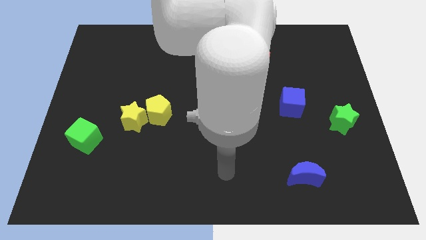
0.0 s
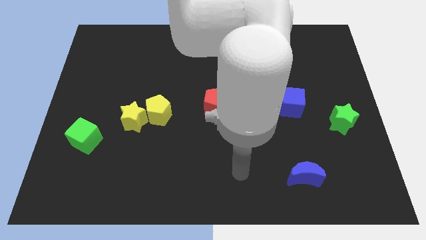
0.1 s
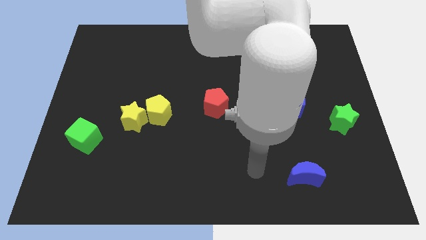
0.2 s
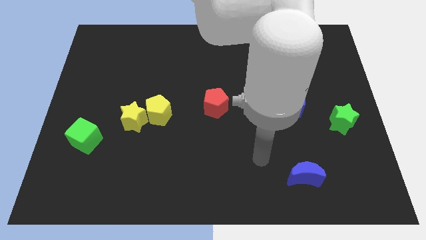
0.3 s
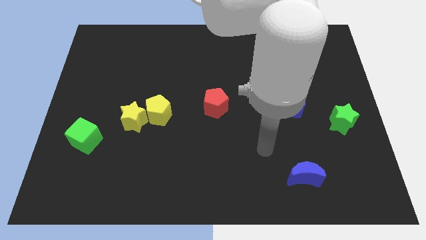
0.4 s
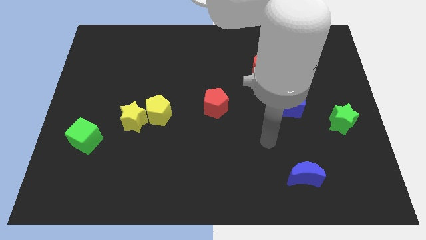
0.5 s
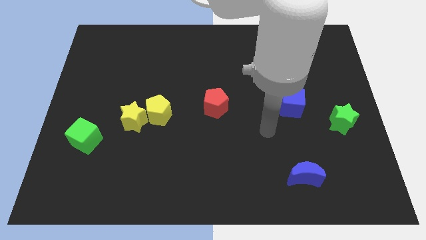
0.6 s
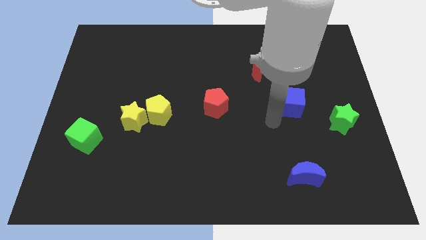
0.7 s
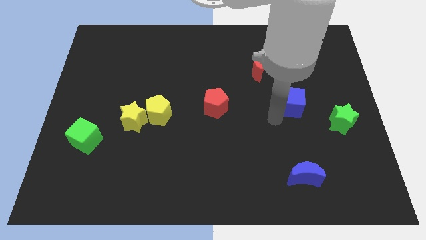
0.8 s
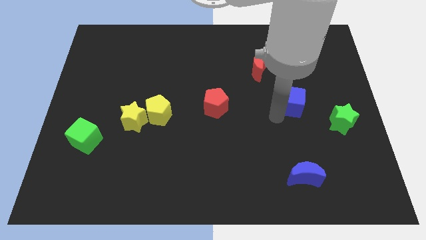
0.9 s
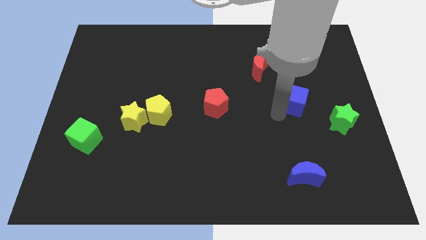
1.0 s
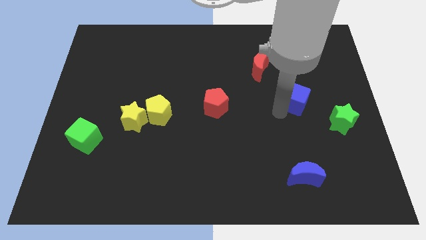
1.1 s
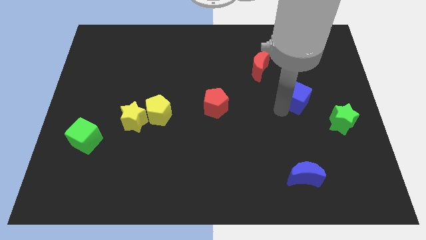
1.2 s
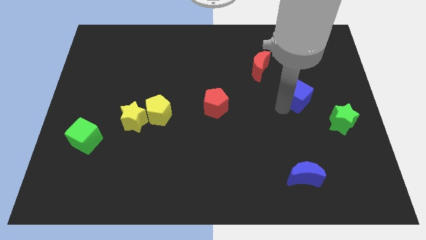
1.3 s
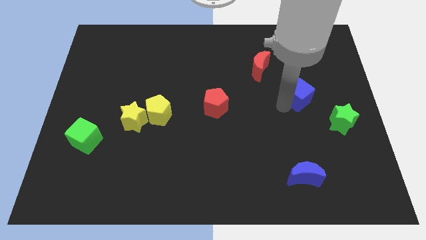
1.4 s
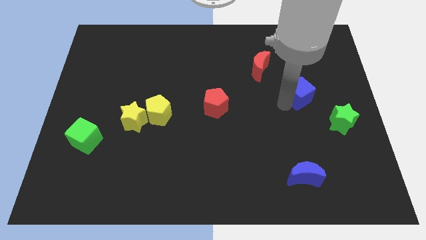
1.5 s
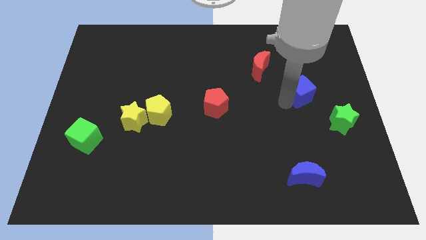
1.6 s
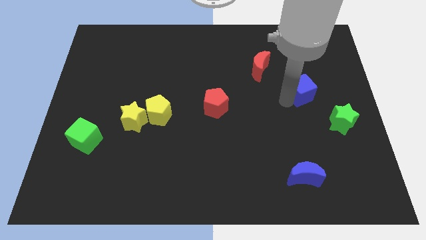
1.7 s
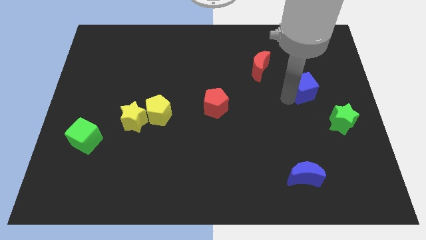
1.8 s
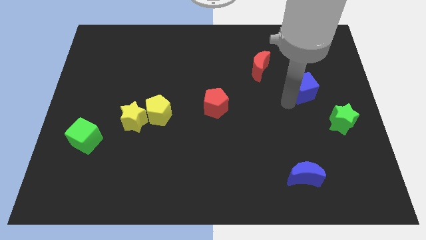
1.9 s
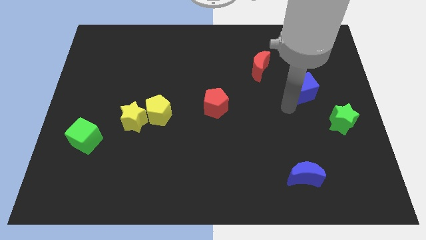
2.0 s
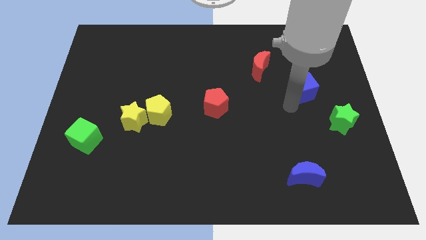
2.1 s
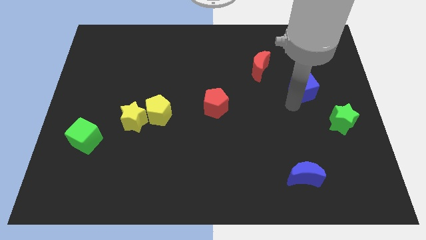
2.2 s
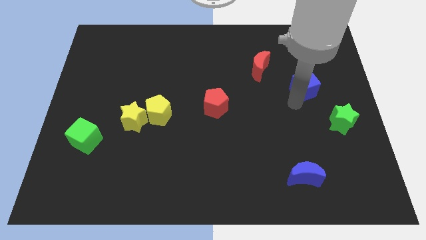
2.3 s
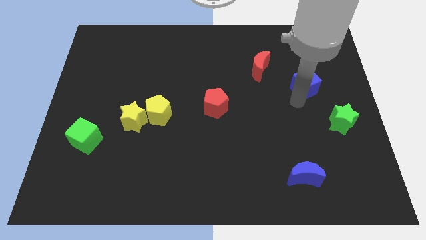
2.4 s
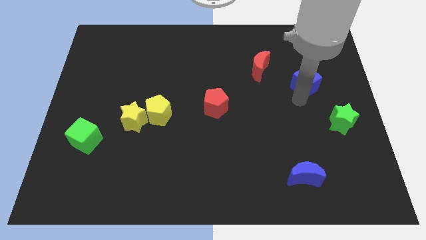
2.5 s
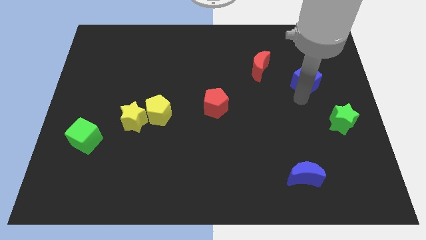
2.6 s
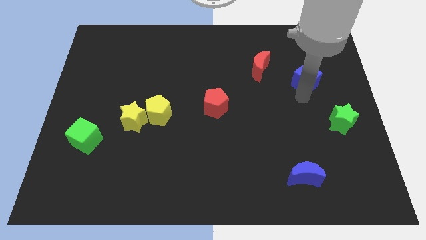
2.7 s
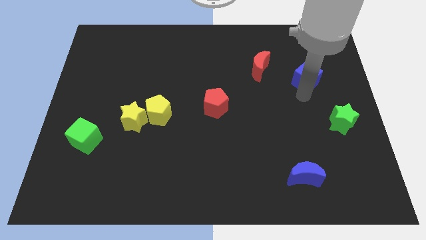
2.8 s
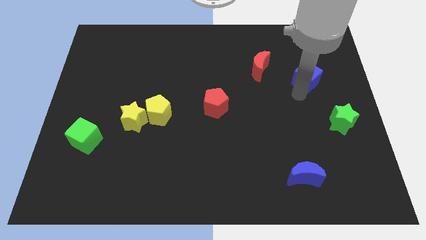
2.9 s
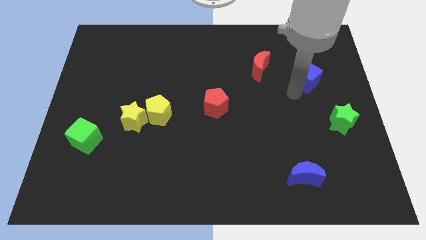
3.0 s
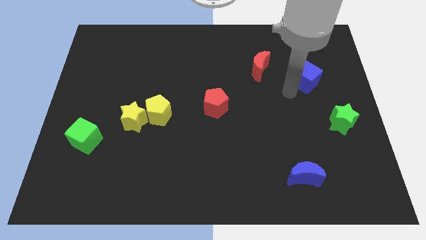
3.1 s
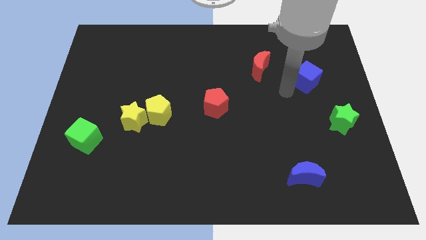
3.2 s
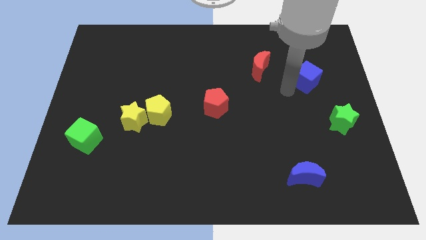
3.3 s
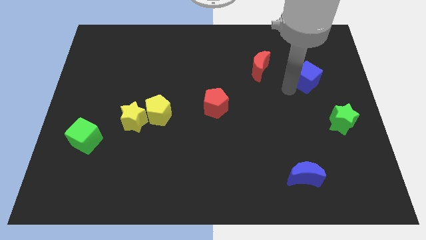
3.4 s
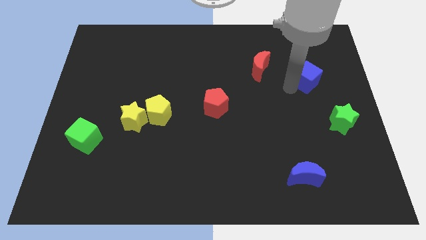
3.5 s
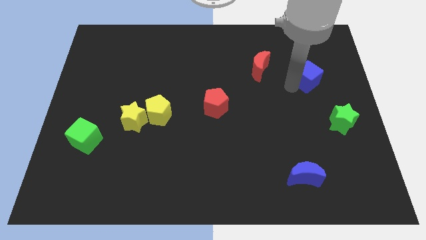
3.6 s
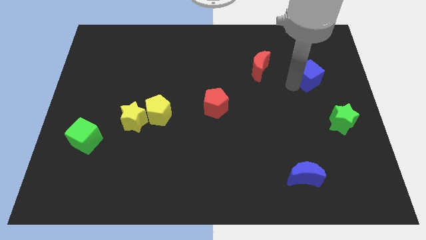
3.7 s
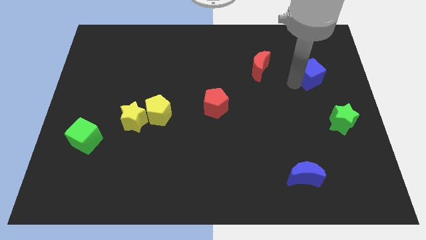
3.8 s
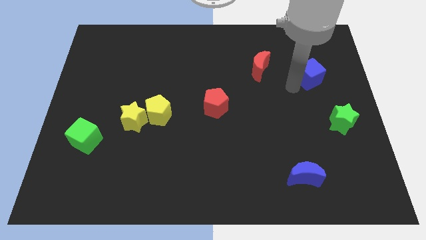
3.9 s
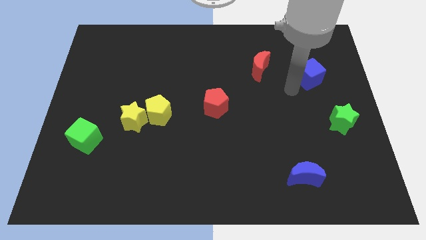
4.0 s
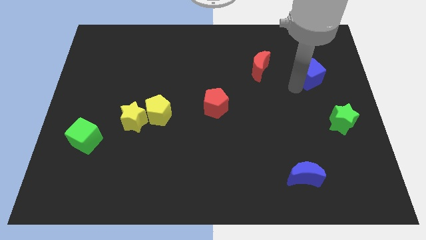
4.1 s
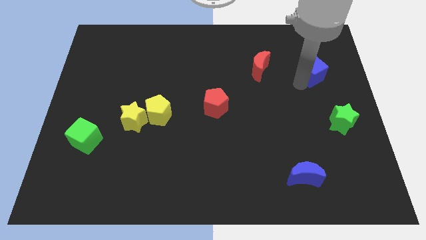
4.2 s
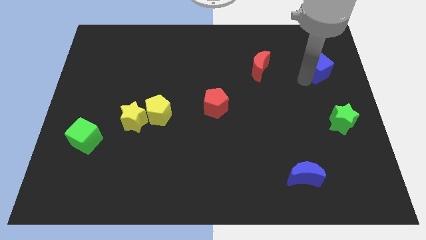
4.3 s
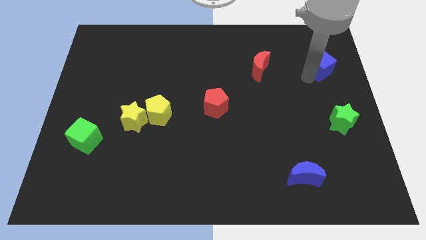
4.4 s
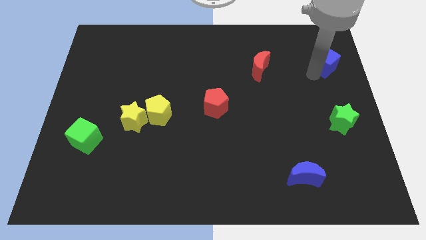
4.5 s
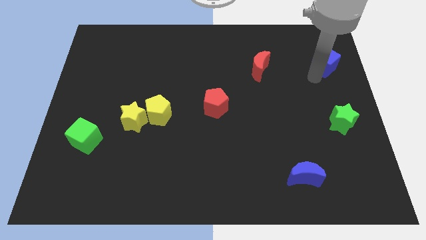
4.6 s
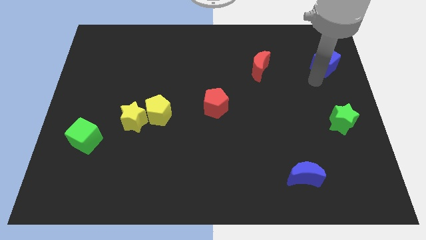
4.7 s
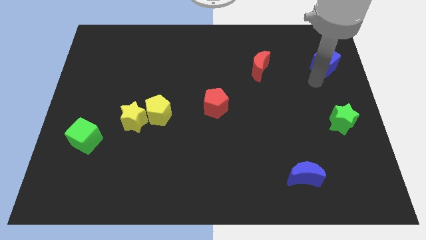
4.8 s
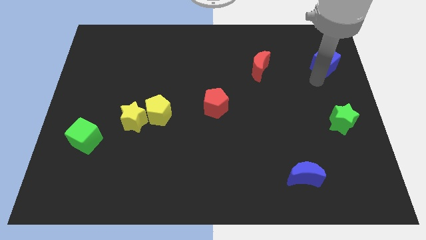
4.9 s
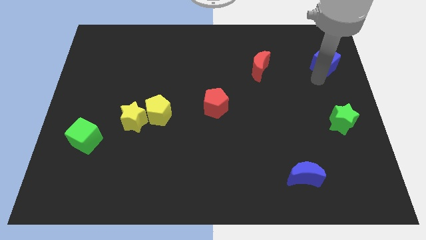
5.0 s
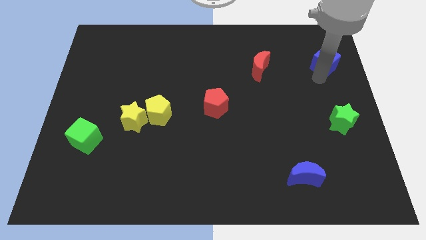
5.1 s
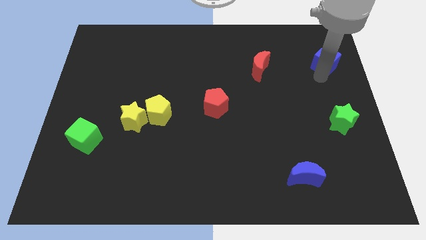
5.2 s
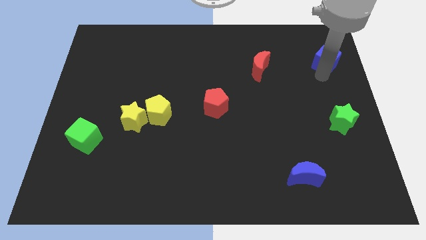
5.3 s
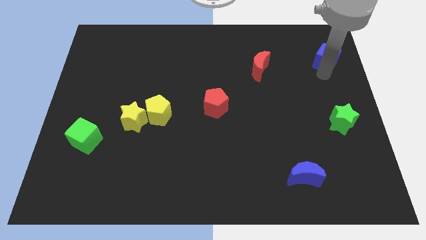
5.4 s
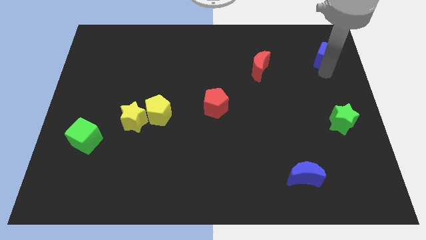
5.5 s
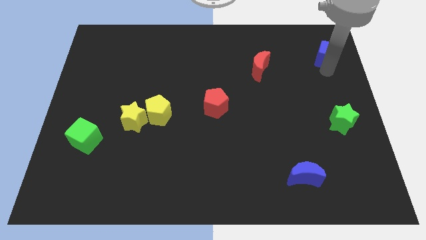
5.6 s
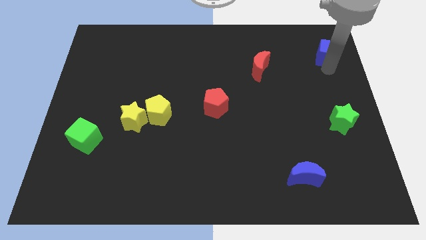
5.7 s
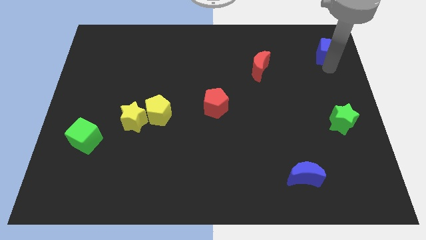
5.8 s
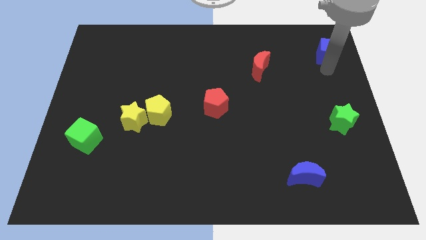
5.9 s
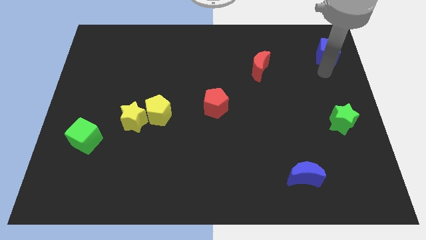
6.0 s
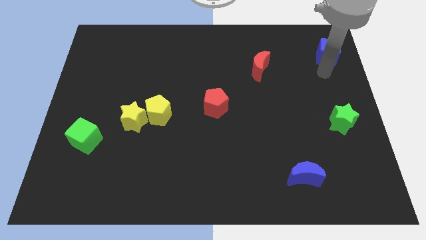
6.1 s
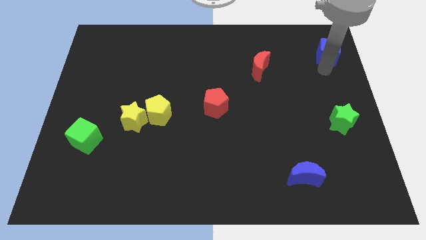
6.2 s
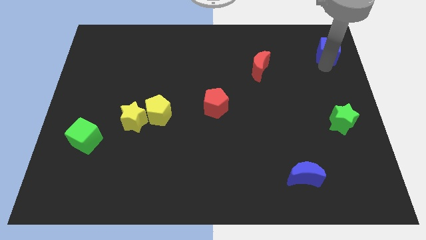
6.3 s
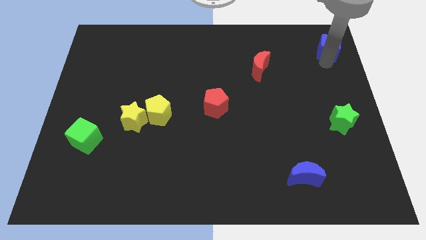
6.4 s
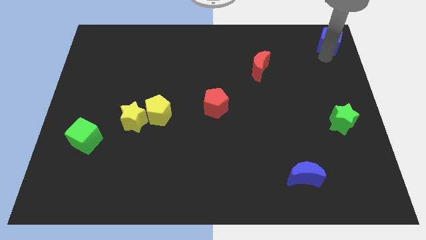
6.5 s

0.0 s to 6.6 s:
move the blue cube to the top right
